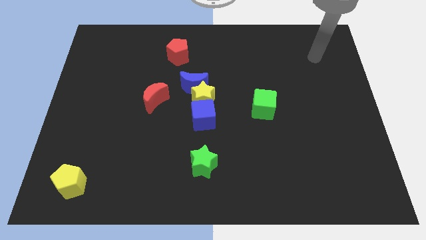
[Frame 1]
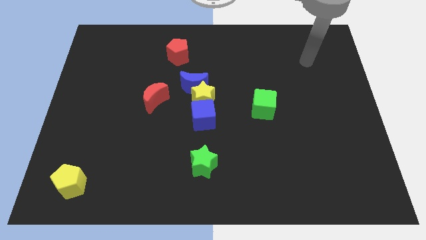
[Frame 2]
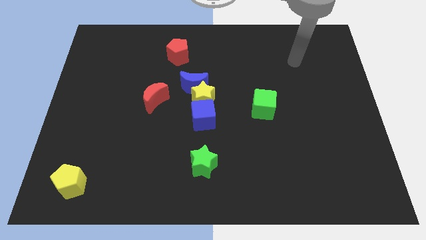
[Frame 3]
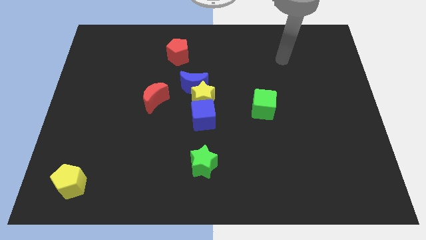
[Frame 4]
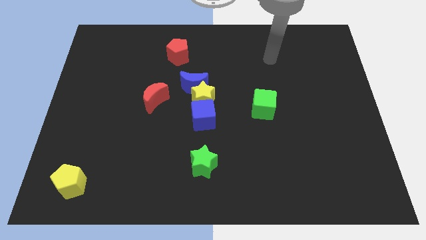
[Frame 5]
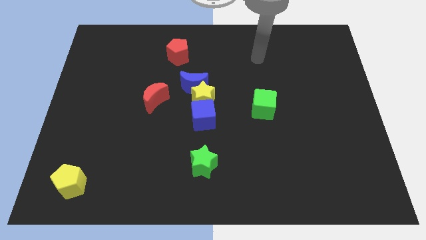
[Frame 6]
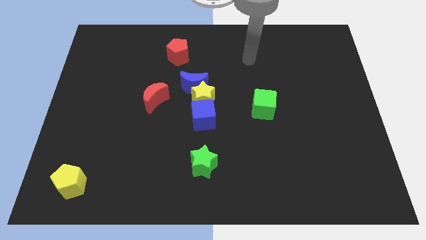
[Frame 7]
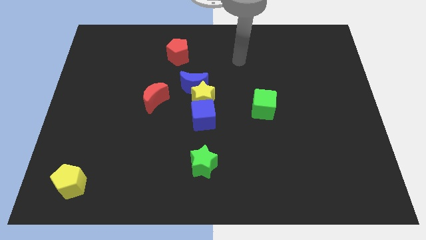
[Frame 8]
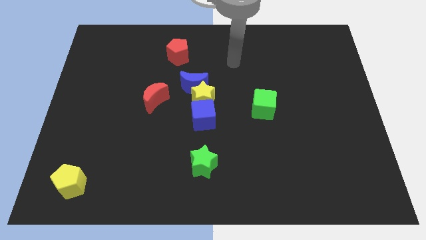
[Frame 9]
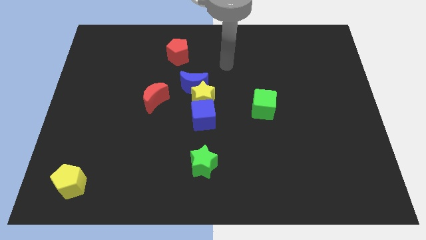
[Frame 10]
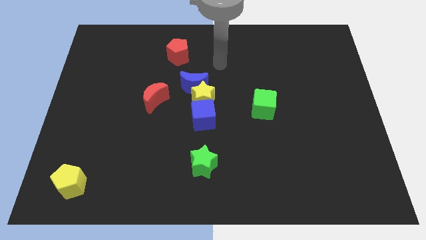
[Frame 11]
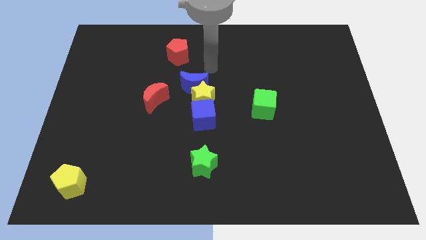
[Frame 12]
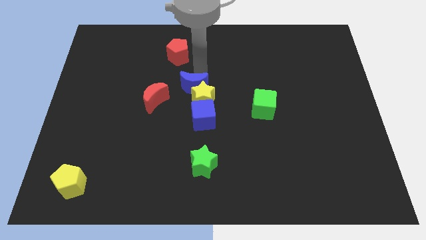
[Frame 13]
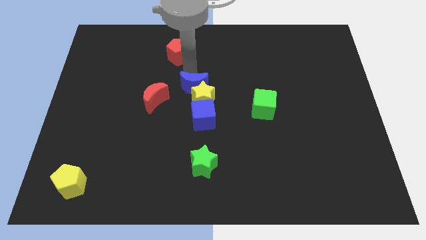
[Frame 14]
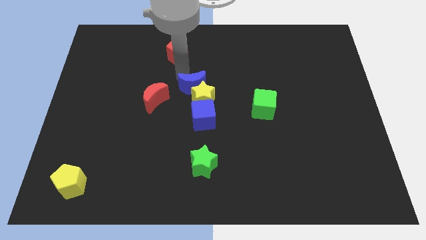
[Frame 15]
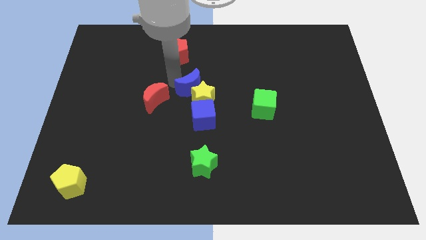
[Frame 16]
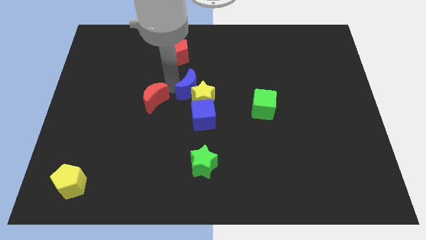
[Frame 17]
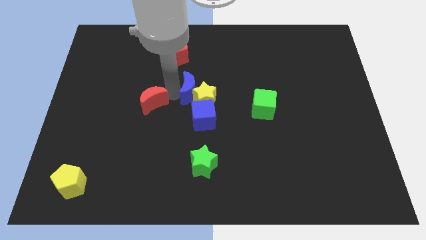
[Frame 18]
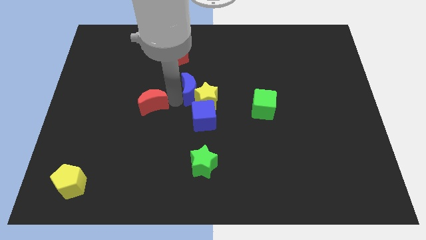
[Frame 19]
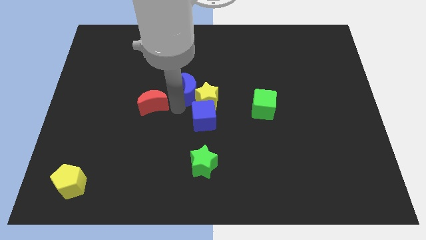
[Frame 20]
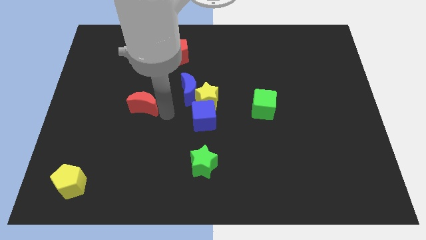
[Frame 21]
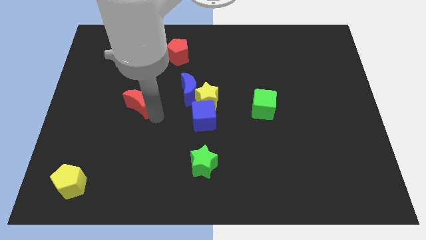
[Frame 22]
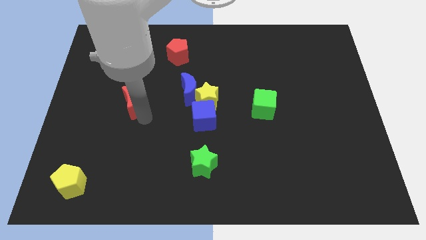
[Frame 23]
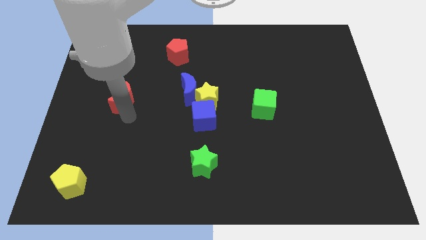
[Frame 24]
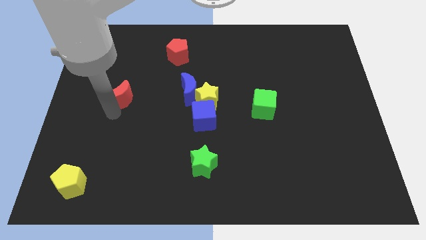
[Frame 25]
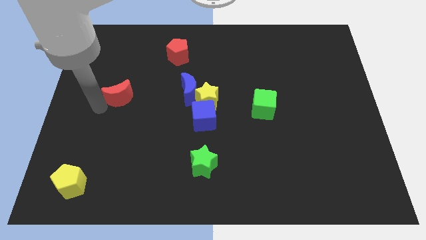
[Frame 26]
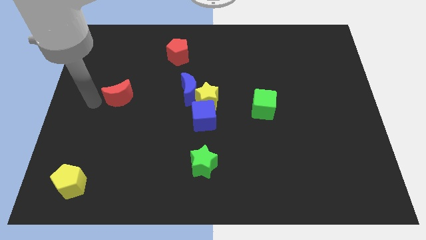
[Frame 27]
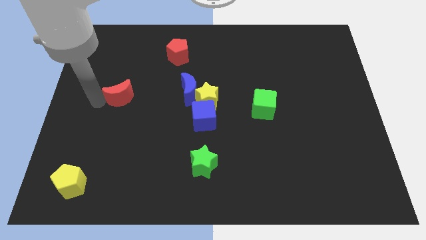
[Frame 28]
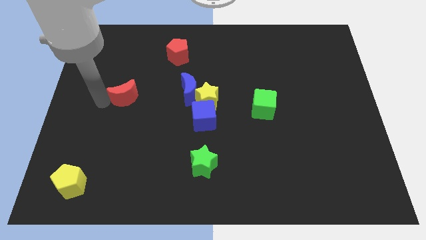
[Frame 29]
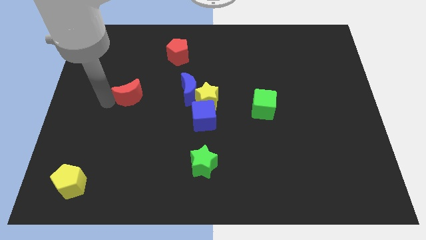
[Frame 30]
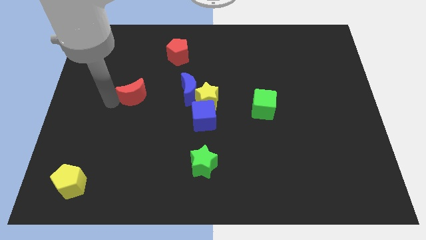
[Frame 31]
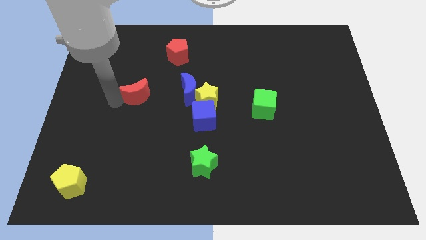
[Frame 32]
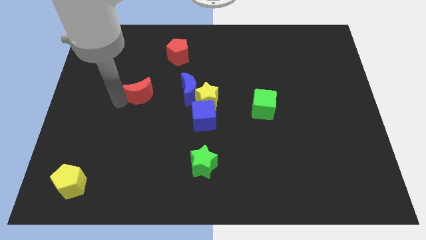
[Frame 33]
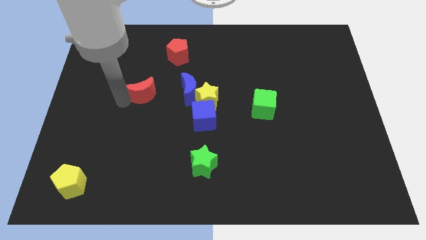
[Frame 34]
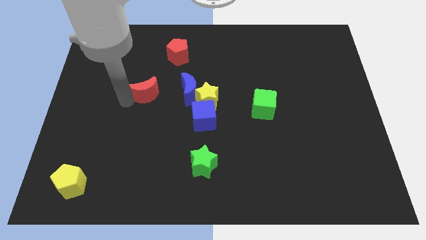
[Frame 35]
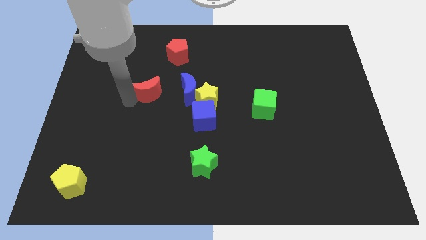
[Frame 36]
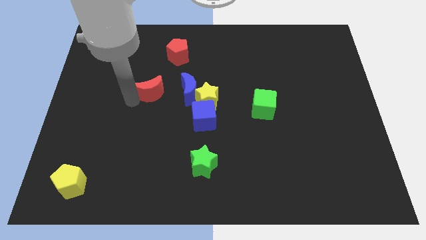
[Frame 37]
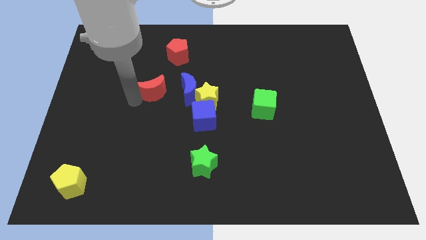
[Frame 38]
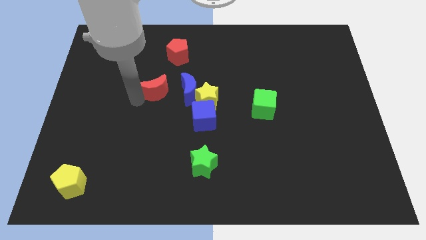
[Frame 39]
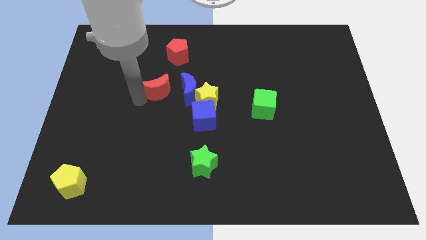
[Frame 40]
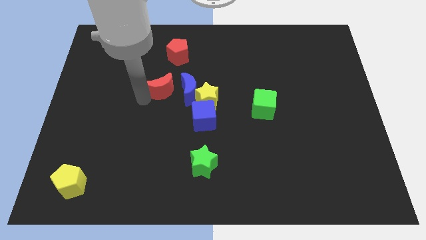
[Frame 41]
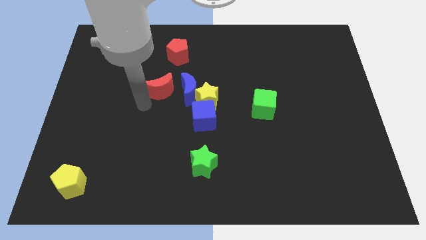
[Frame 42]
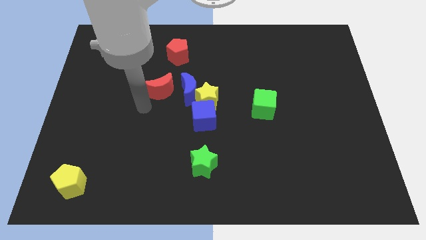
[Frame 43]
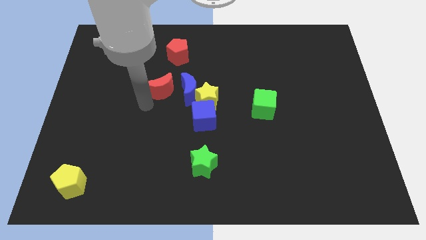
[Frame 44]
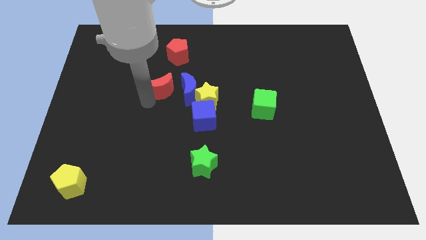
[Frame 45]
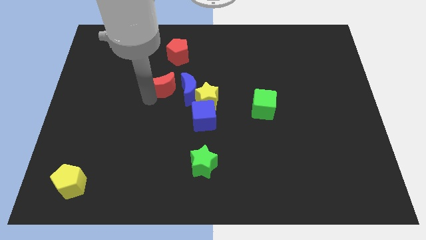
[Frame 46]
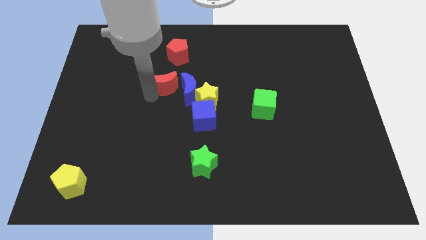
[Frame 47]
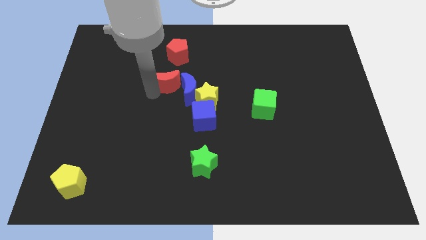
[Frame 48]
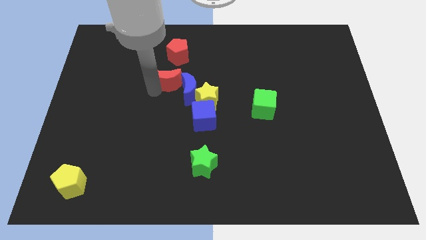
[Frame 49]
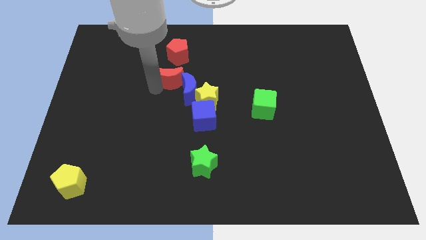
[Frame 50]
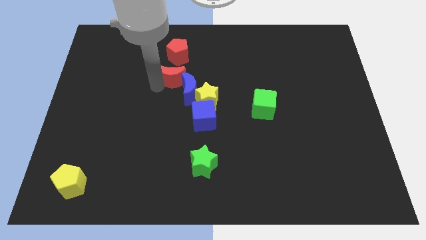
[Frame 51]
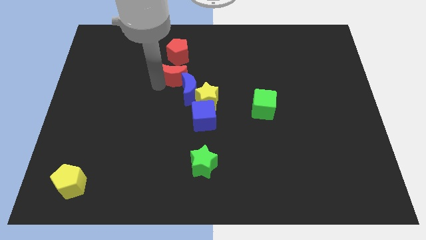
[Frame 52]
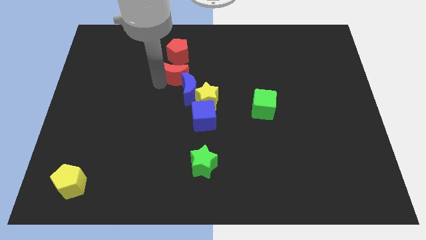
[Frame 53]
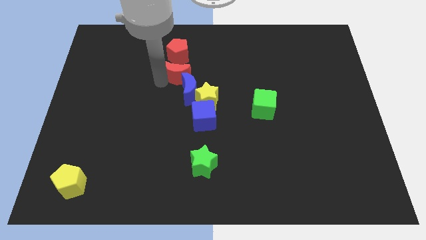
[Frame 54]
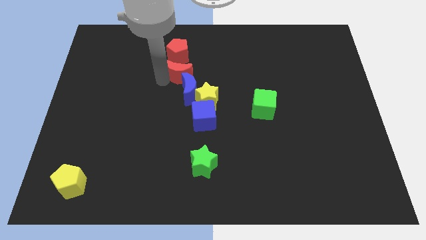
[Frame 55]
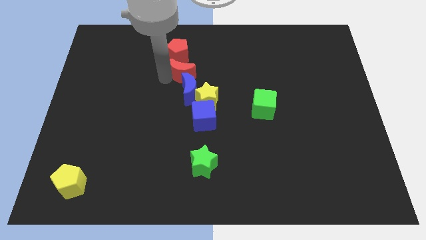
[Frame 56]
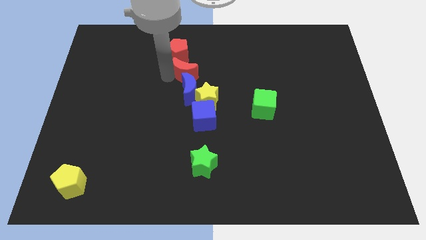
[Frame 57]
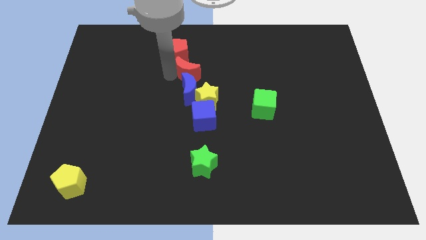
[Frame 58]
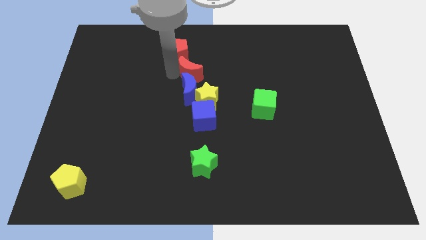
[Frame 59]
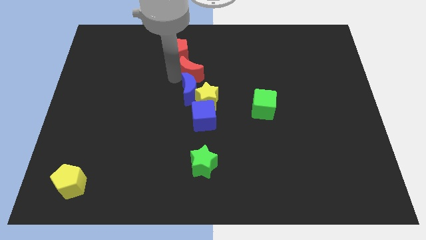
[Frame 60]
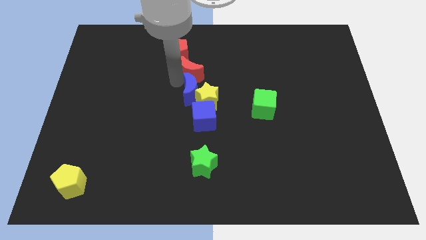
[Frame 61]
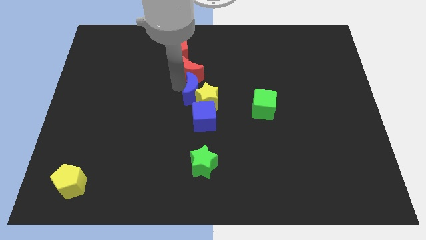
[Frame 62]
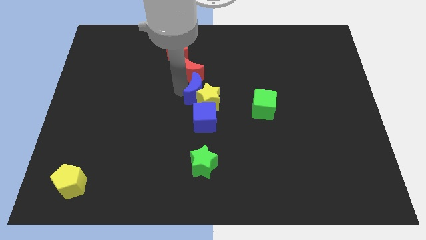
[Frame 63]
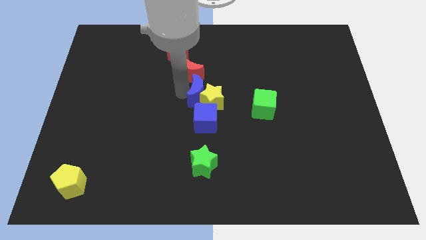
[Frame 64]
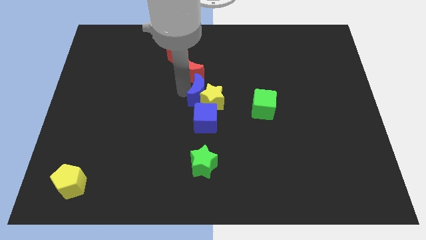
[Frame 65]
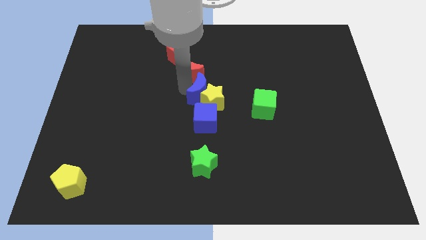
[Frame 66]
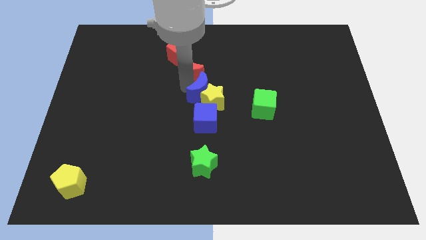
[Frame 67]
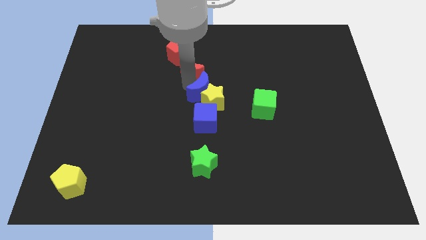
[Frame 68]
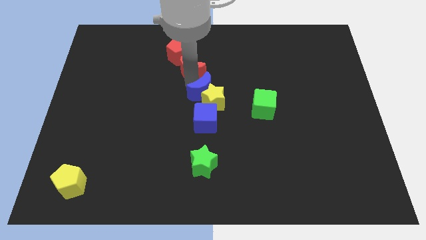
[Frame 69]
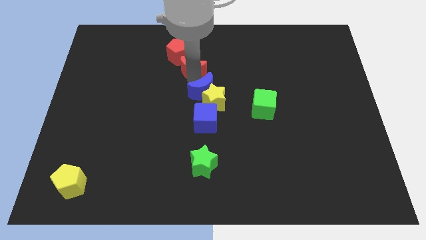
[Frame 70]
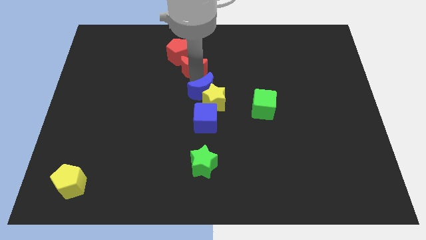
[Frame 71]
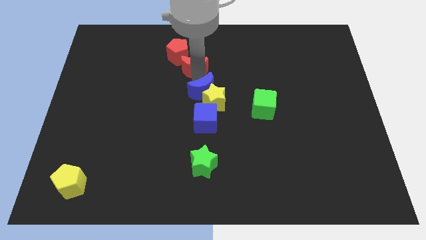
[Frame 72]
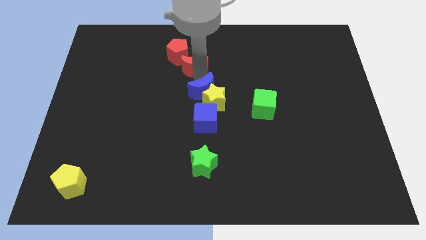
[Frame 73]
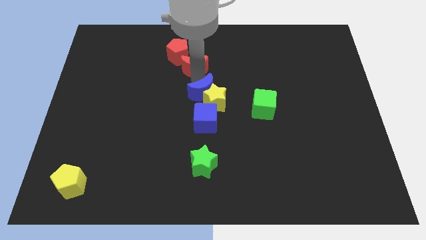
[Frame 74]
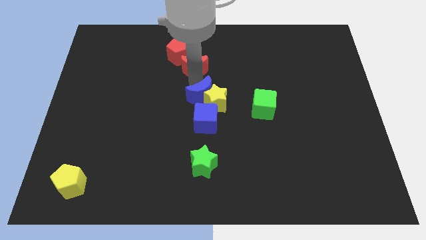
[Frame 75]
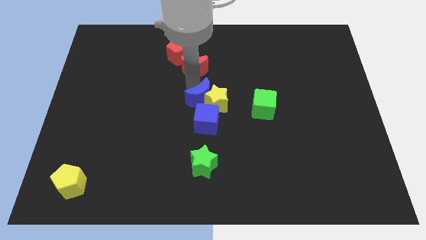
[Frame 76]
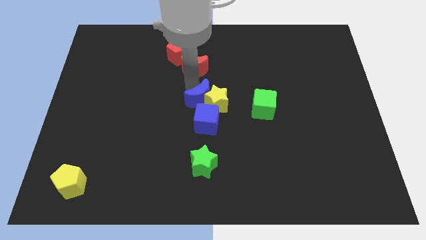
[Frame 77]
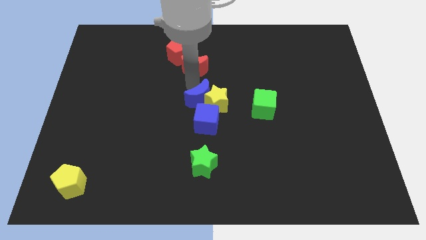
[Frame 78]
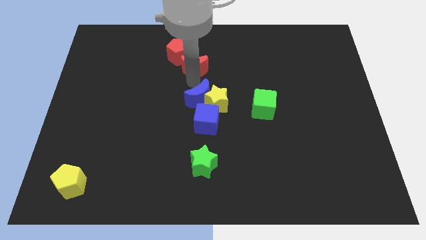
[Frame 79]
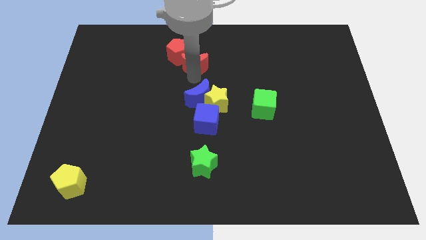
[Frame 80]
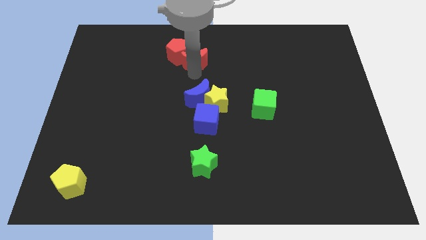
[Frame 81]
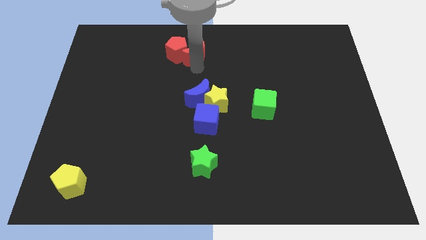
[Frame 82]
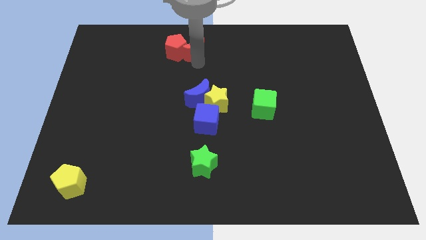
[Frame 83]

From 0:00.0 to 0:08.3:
move the red moon to the towards your base
